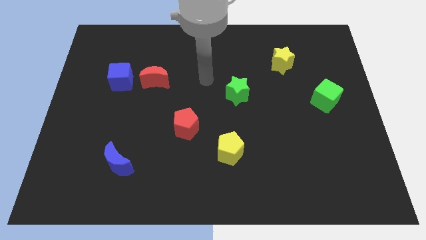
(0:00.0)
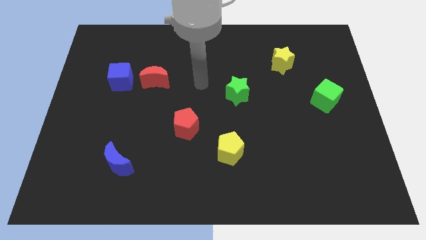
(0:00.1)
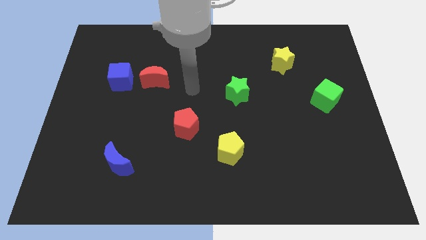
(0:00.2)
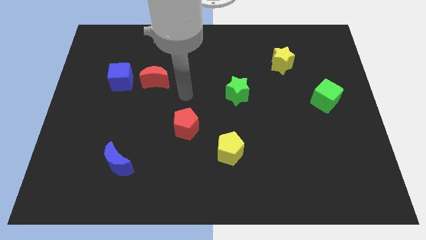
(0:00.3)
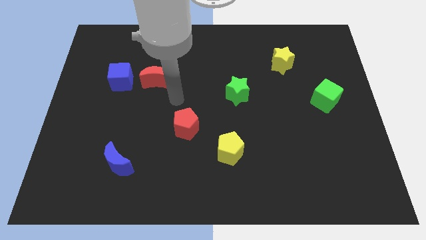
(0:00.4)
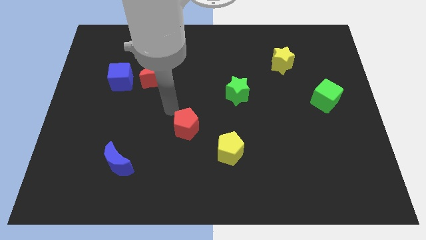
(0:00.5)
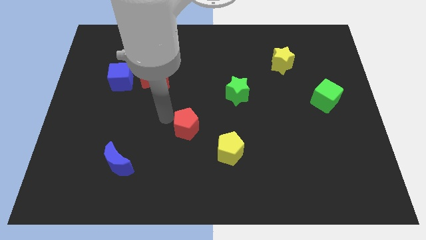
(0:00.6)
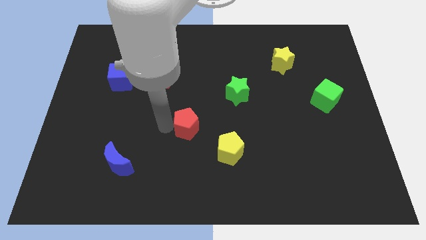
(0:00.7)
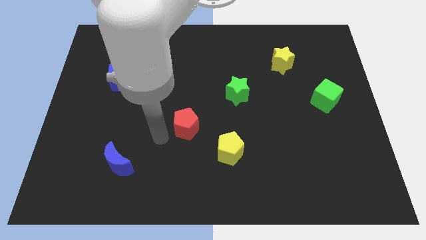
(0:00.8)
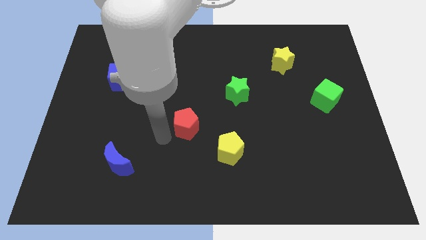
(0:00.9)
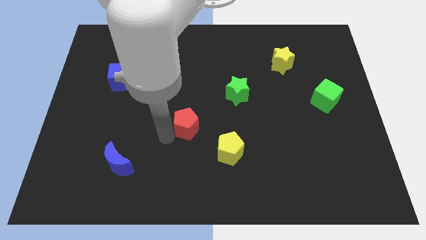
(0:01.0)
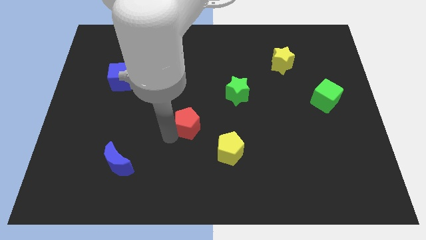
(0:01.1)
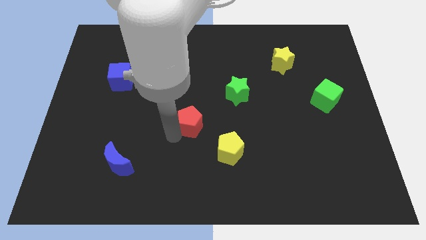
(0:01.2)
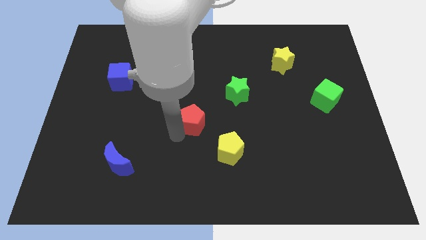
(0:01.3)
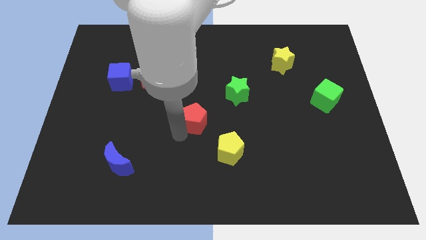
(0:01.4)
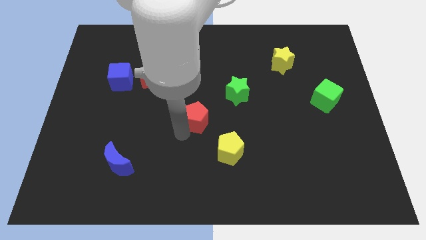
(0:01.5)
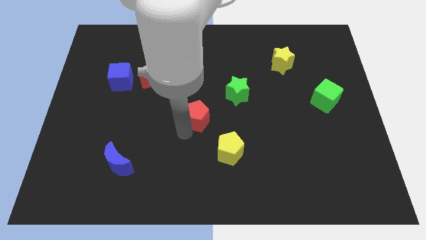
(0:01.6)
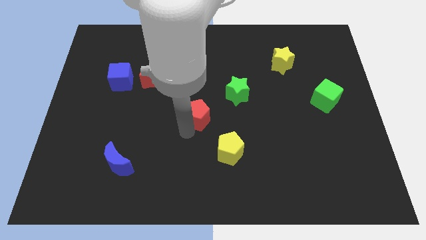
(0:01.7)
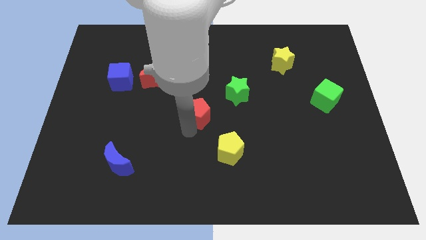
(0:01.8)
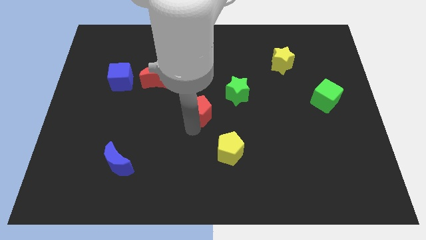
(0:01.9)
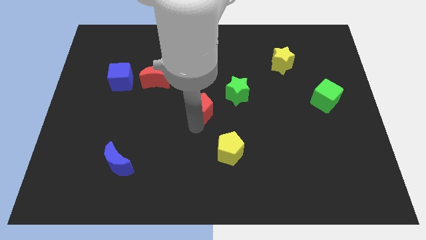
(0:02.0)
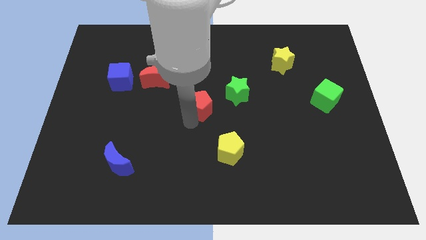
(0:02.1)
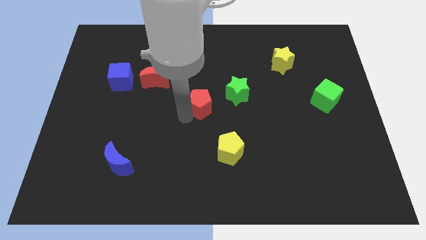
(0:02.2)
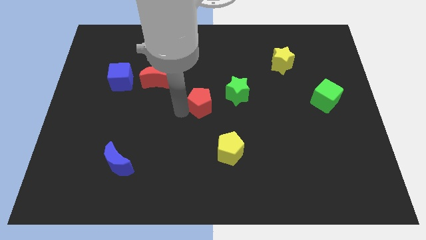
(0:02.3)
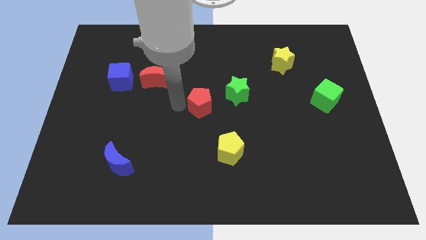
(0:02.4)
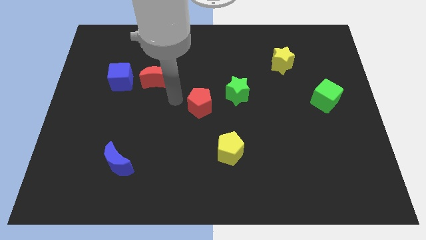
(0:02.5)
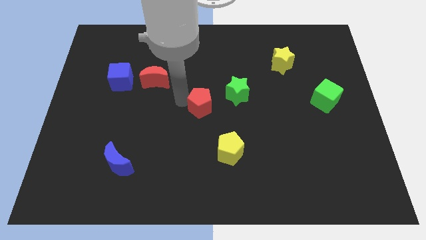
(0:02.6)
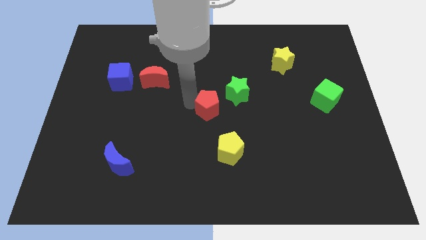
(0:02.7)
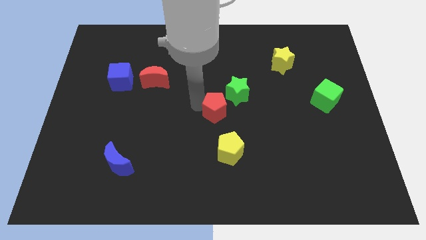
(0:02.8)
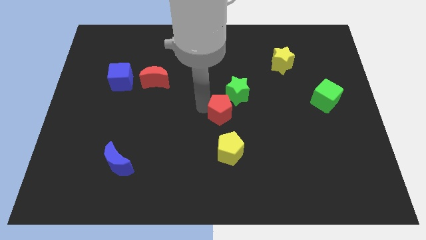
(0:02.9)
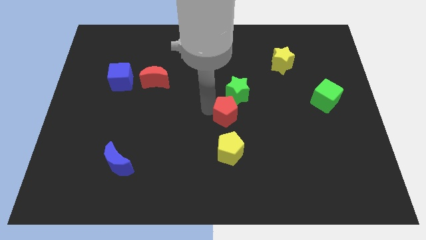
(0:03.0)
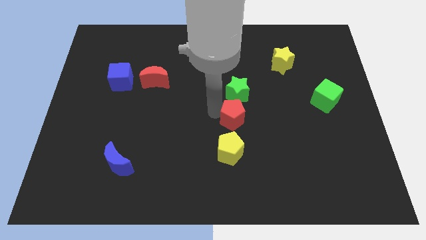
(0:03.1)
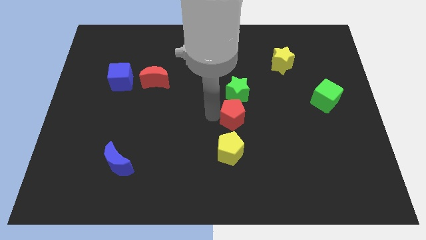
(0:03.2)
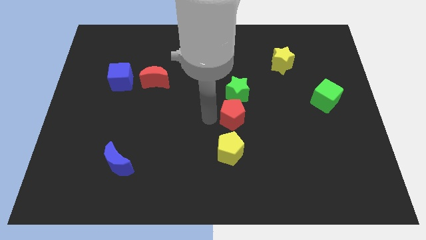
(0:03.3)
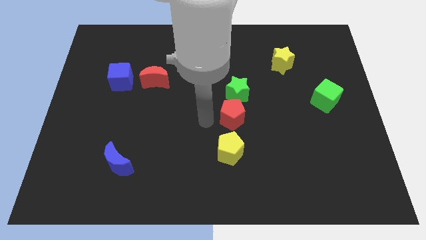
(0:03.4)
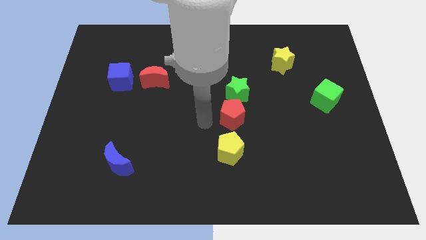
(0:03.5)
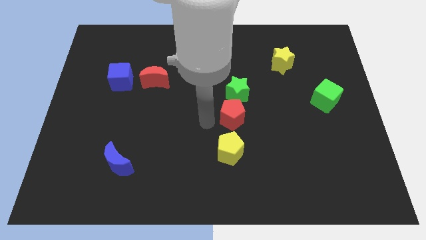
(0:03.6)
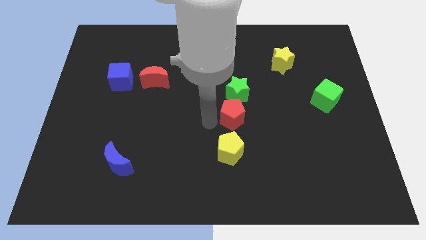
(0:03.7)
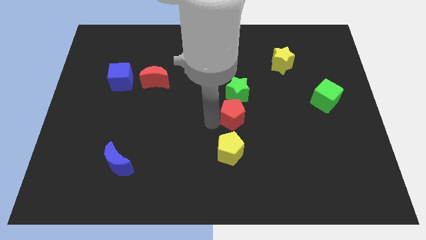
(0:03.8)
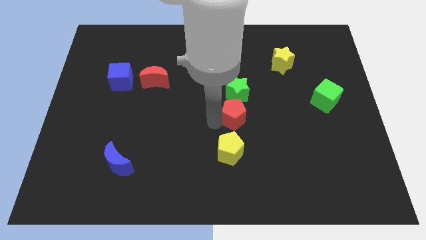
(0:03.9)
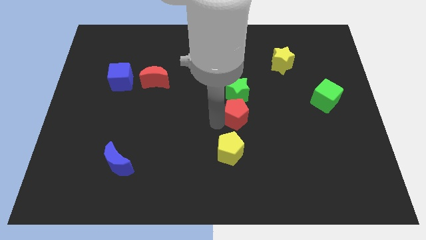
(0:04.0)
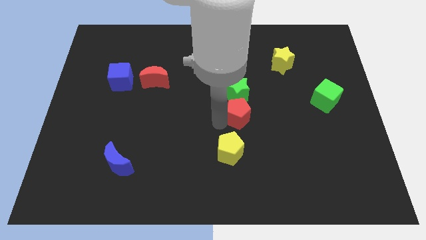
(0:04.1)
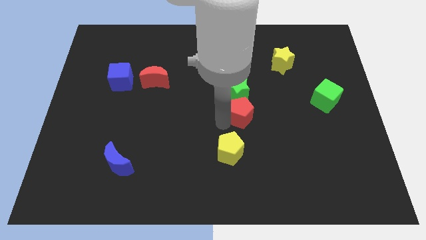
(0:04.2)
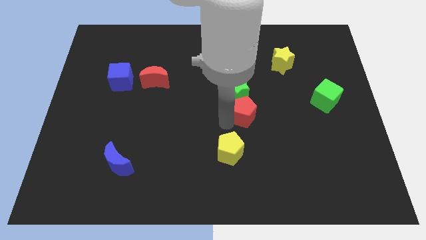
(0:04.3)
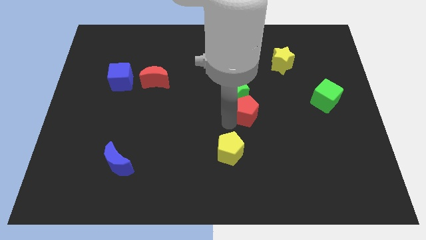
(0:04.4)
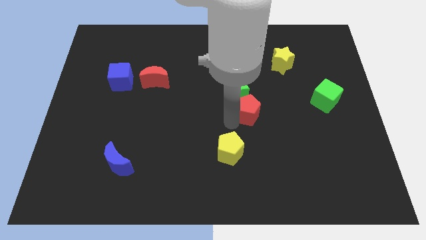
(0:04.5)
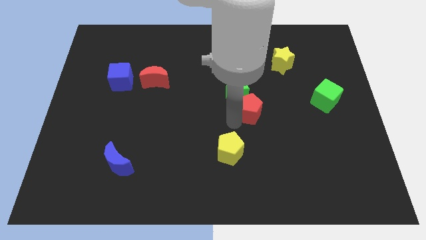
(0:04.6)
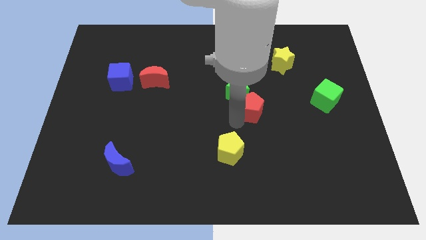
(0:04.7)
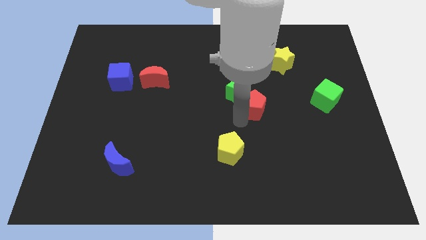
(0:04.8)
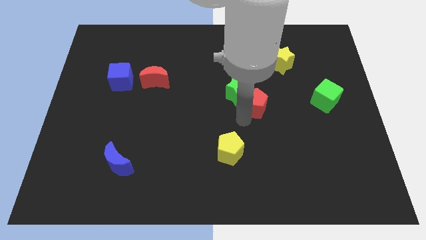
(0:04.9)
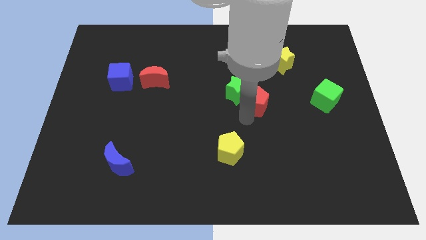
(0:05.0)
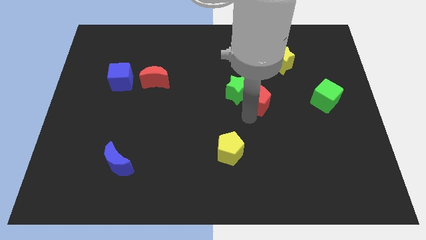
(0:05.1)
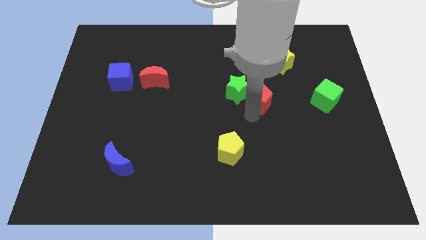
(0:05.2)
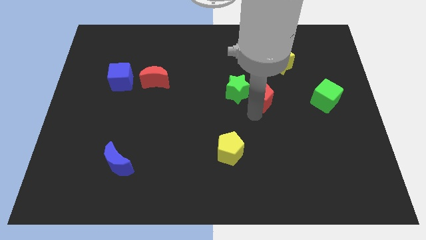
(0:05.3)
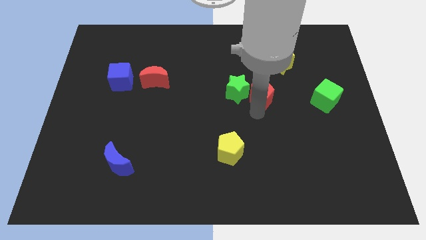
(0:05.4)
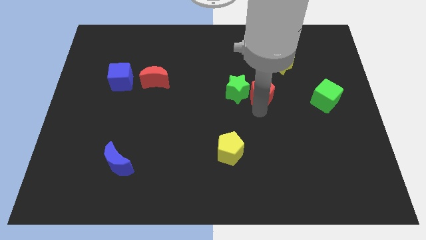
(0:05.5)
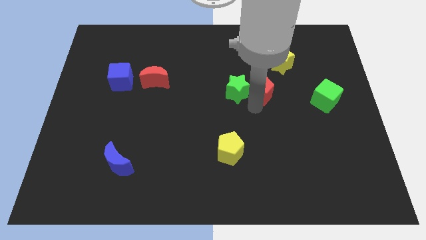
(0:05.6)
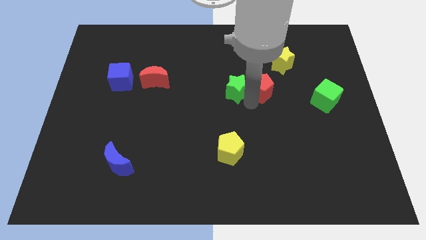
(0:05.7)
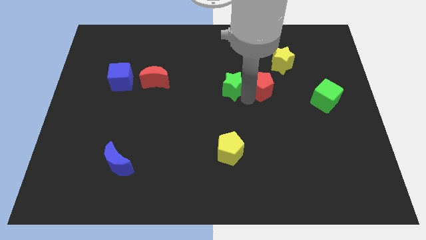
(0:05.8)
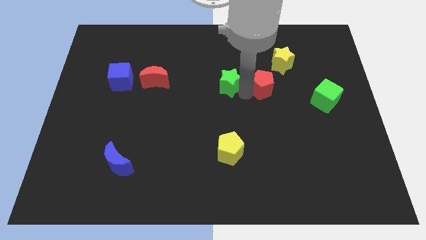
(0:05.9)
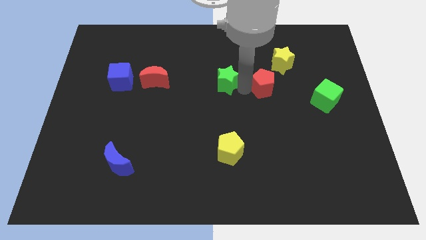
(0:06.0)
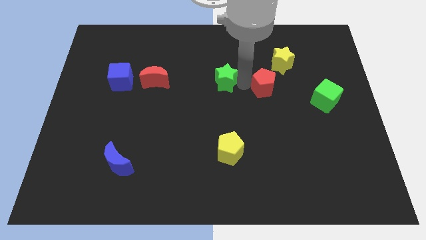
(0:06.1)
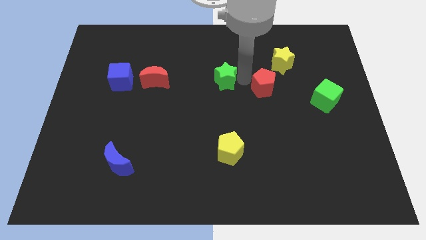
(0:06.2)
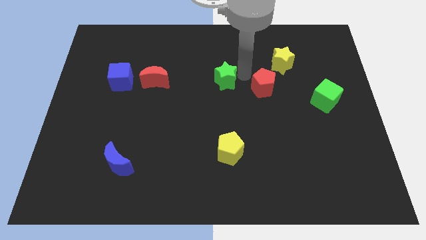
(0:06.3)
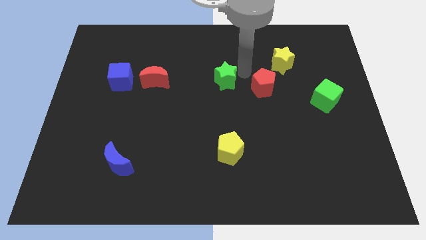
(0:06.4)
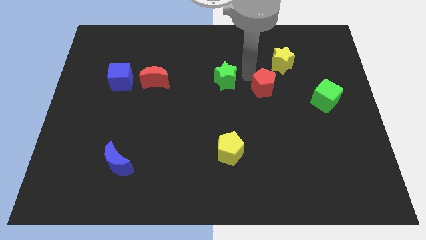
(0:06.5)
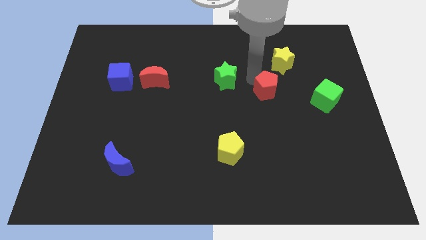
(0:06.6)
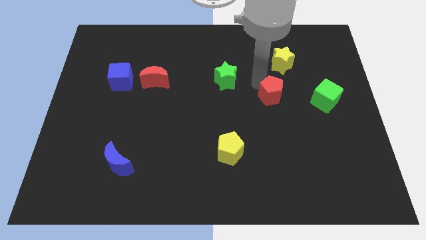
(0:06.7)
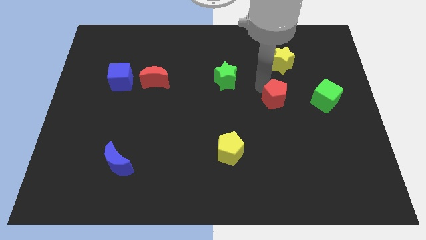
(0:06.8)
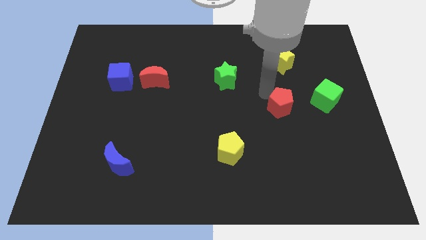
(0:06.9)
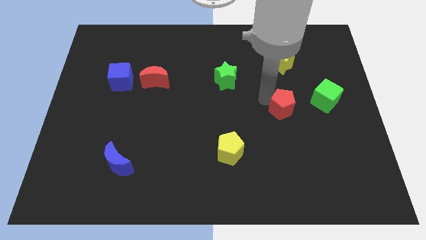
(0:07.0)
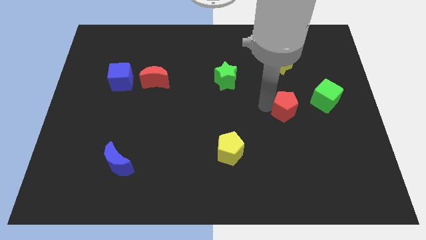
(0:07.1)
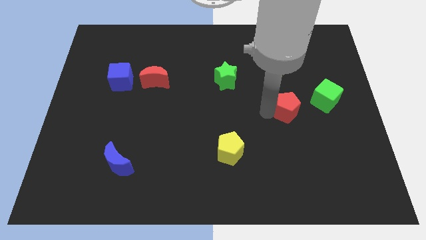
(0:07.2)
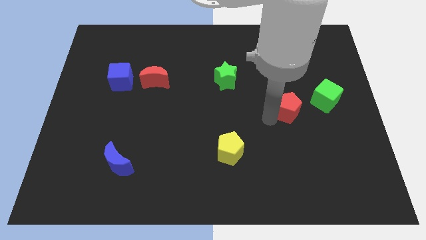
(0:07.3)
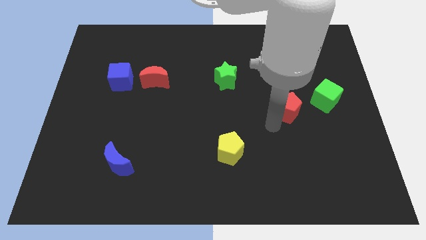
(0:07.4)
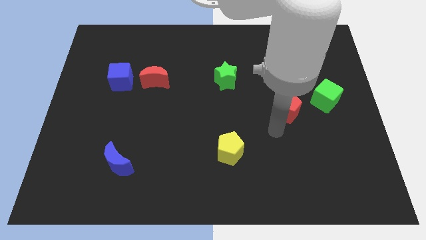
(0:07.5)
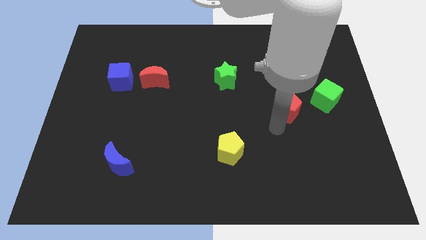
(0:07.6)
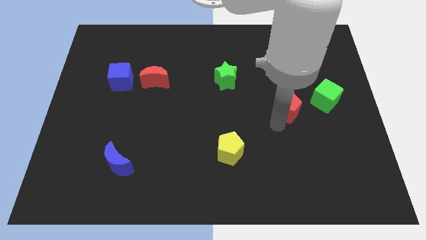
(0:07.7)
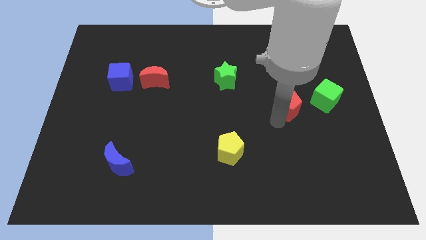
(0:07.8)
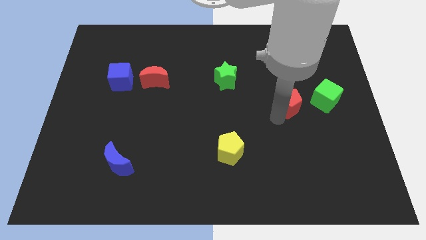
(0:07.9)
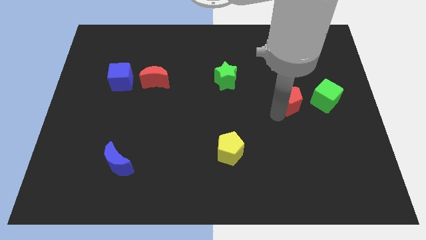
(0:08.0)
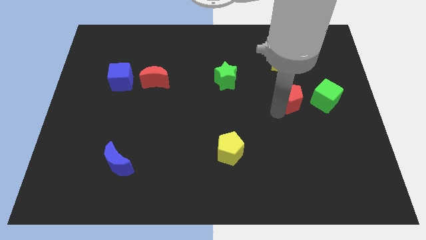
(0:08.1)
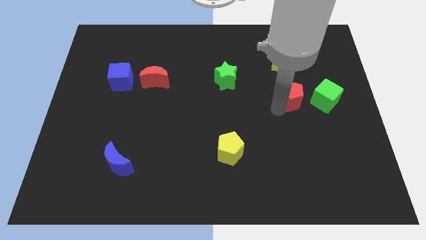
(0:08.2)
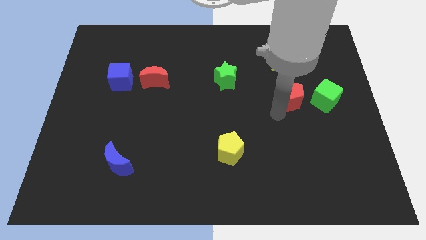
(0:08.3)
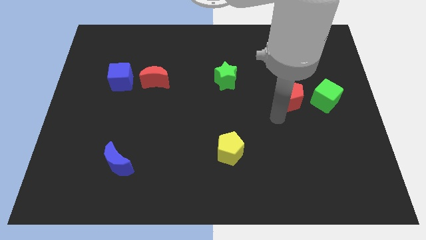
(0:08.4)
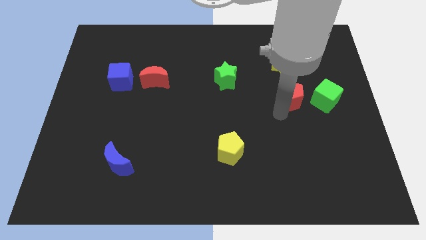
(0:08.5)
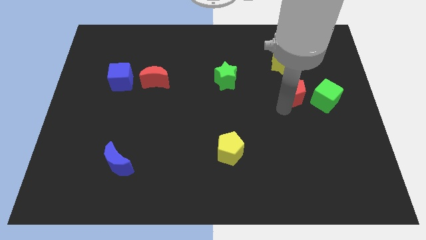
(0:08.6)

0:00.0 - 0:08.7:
push the red pentagon diagonally up and to the left of the green cube
